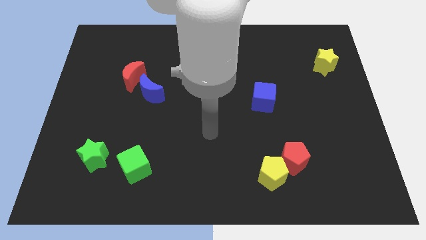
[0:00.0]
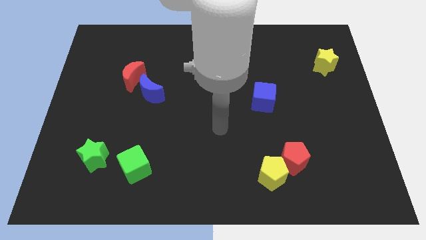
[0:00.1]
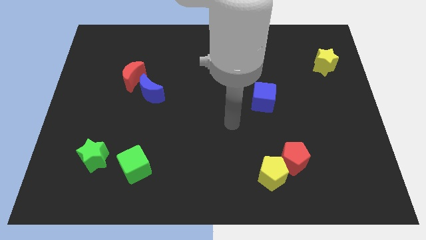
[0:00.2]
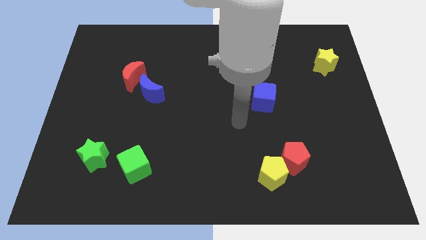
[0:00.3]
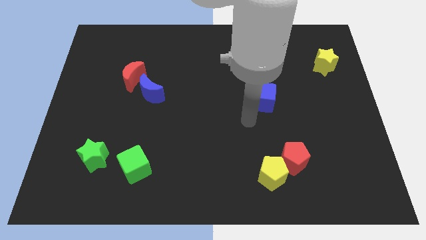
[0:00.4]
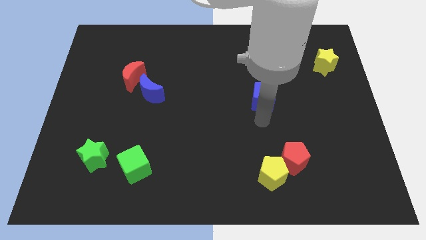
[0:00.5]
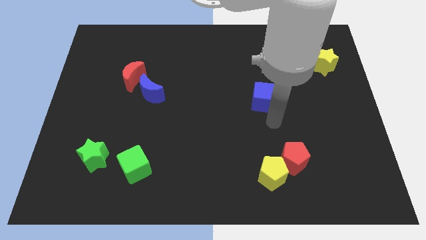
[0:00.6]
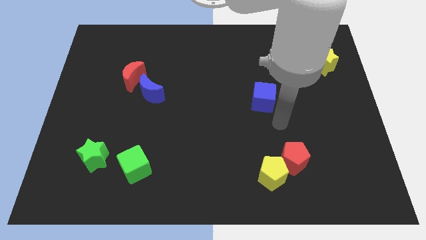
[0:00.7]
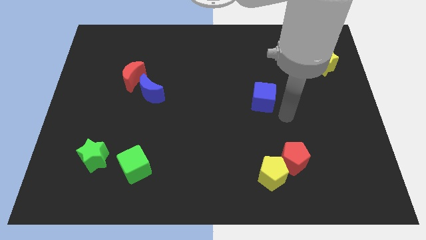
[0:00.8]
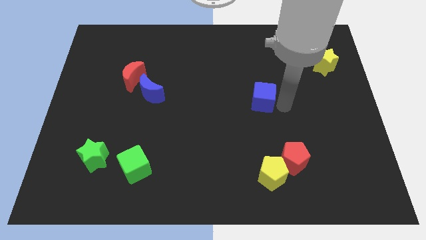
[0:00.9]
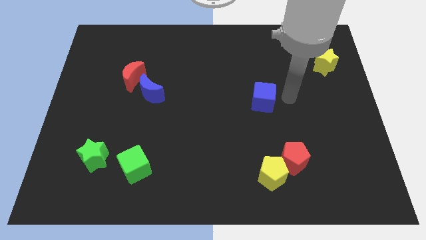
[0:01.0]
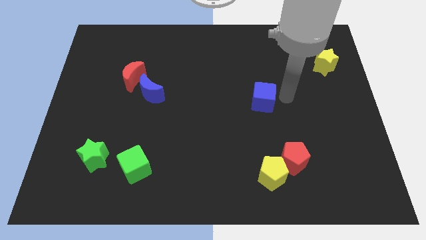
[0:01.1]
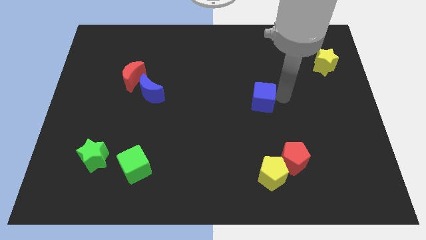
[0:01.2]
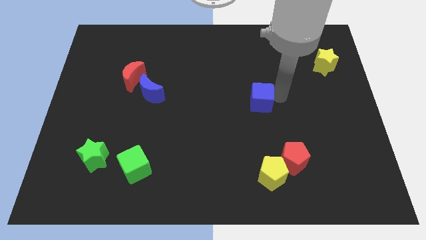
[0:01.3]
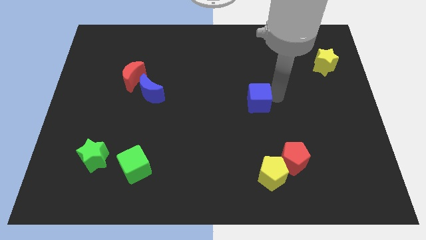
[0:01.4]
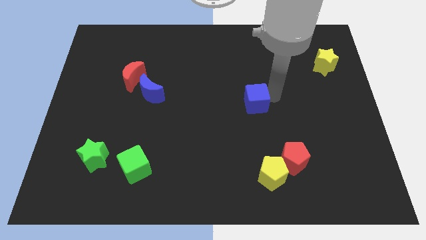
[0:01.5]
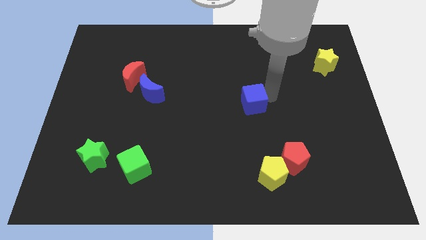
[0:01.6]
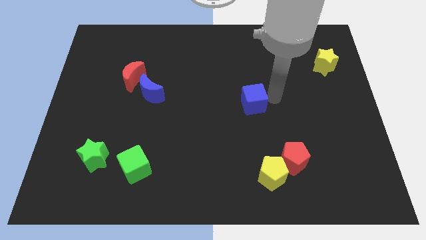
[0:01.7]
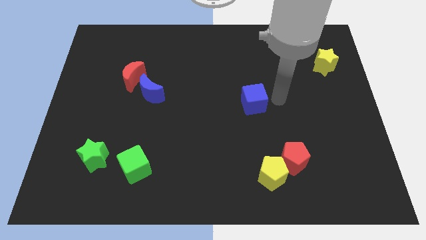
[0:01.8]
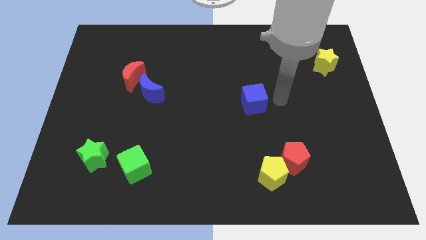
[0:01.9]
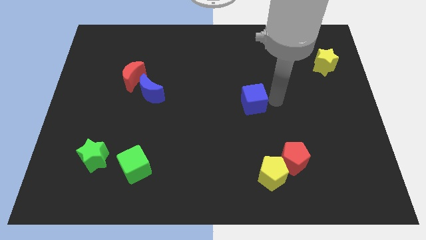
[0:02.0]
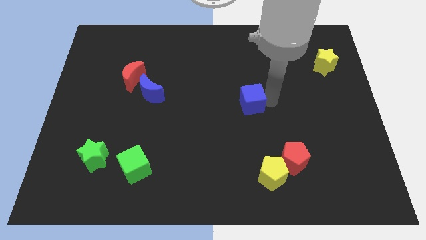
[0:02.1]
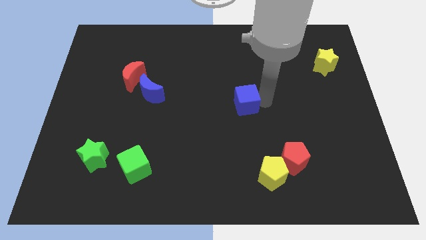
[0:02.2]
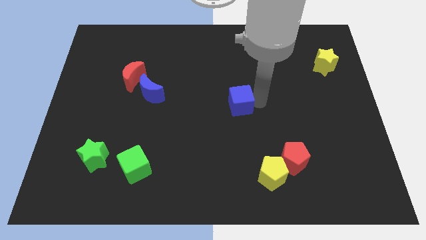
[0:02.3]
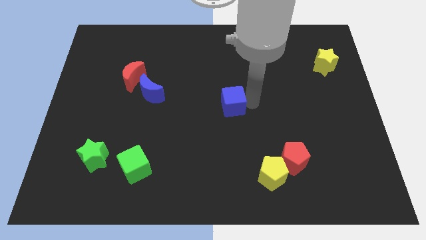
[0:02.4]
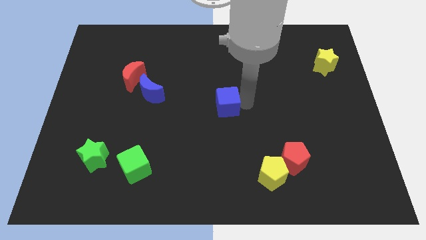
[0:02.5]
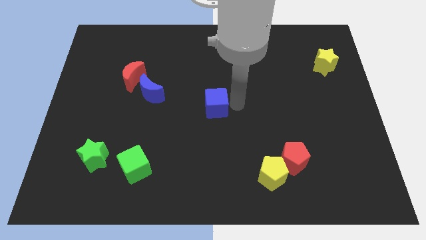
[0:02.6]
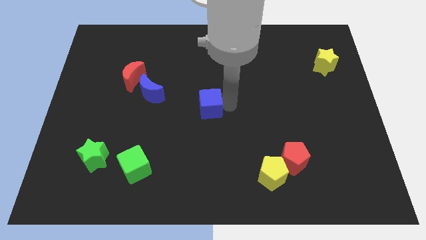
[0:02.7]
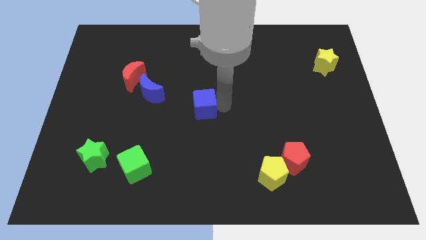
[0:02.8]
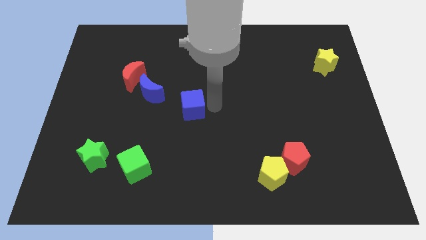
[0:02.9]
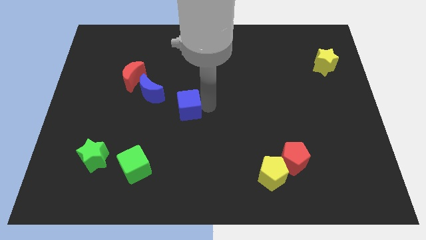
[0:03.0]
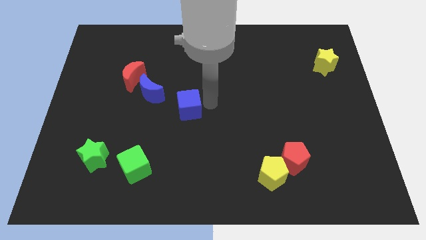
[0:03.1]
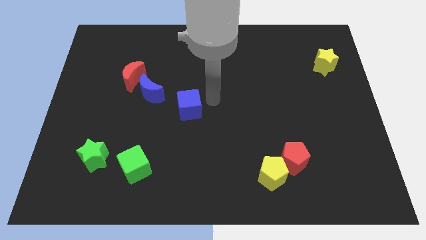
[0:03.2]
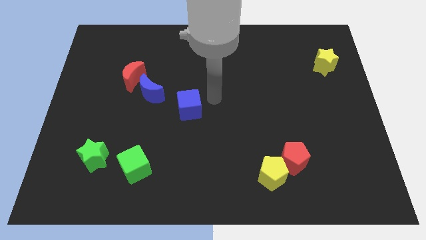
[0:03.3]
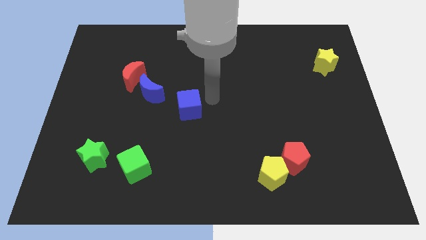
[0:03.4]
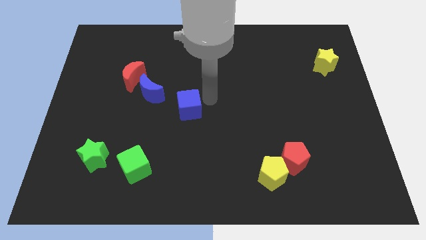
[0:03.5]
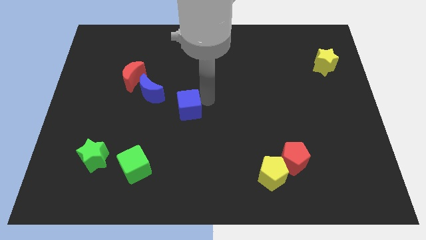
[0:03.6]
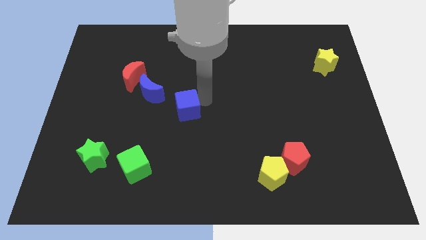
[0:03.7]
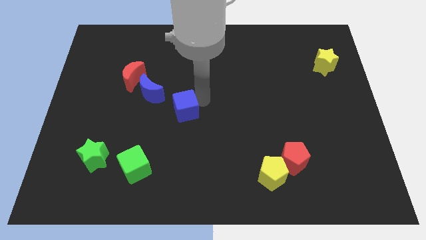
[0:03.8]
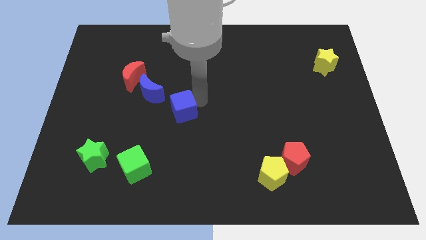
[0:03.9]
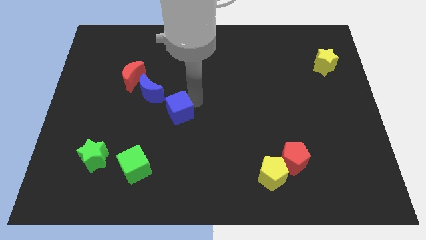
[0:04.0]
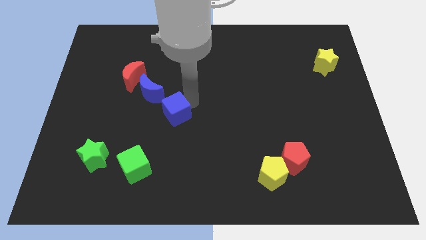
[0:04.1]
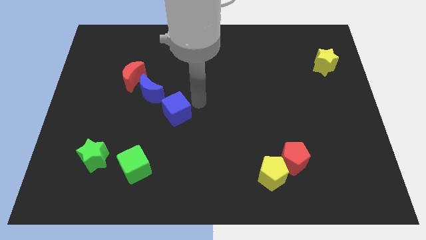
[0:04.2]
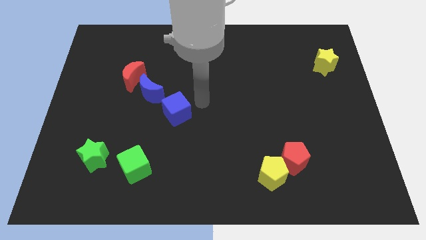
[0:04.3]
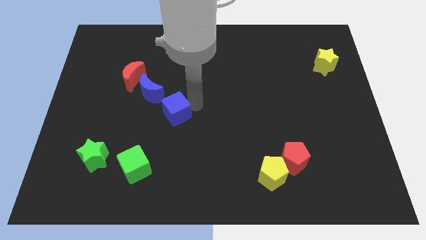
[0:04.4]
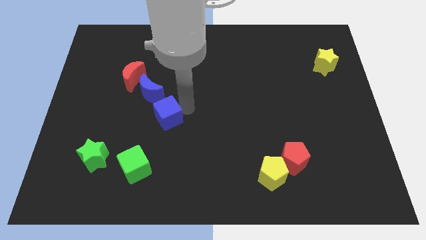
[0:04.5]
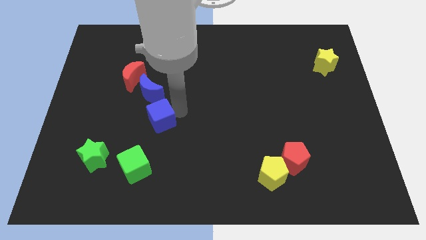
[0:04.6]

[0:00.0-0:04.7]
move the blue cube to the top side of the green cube

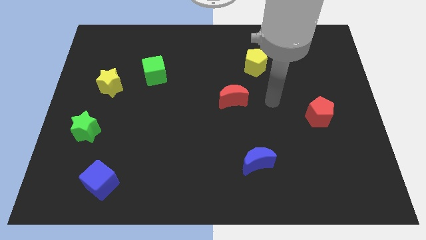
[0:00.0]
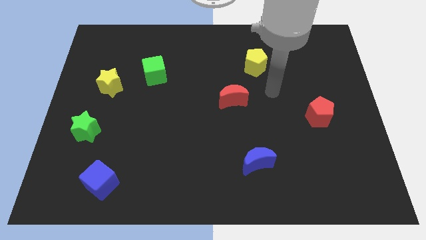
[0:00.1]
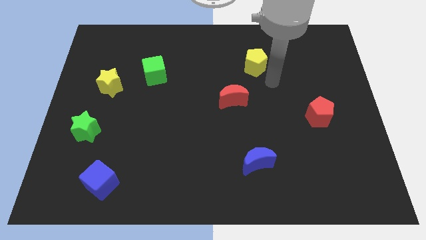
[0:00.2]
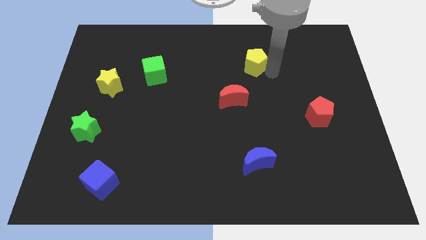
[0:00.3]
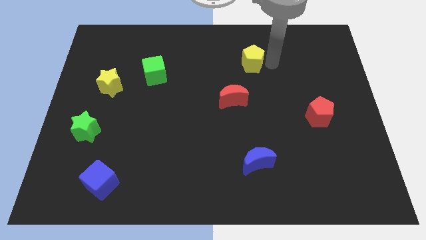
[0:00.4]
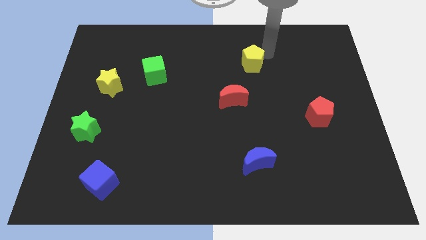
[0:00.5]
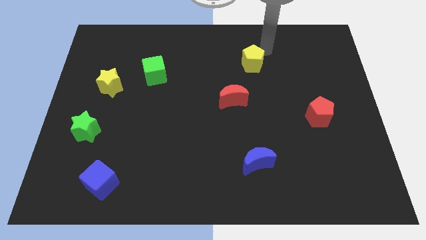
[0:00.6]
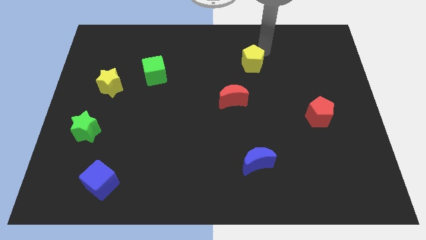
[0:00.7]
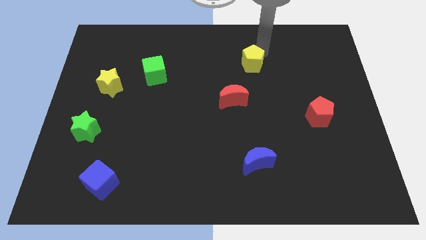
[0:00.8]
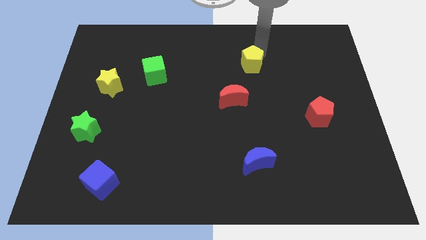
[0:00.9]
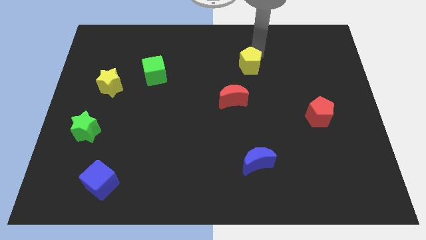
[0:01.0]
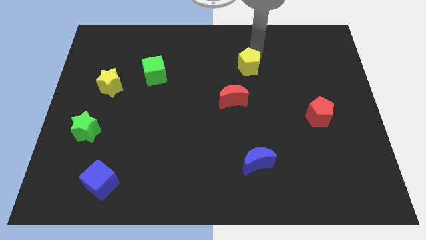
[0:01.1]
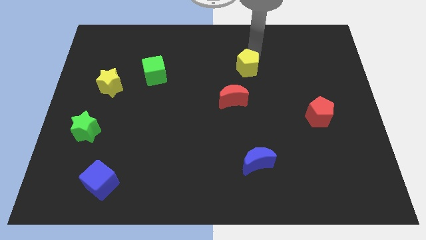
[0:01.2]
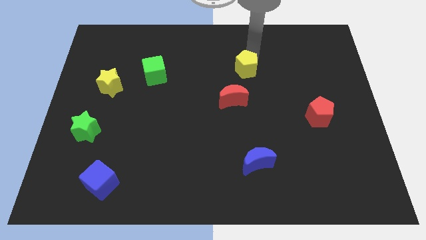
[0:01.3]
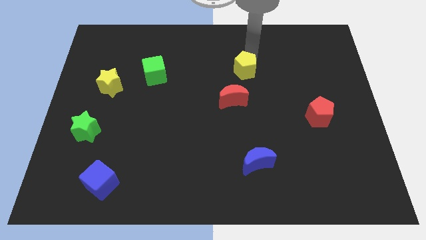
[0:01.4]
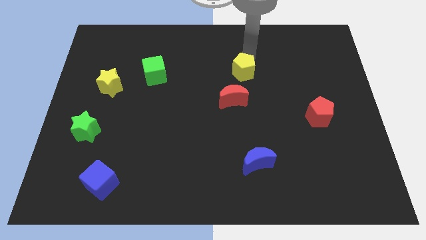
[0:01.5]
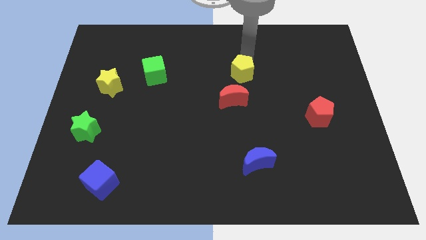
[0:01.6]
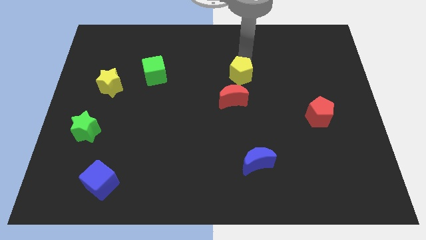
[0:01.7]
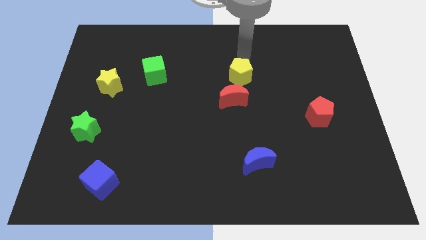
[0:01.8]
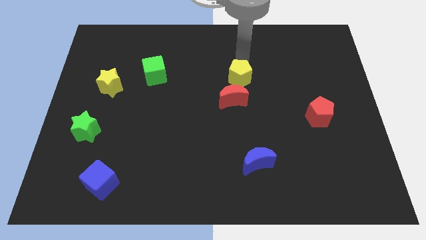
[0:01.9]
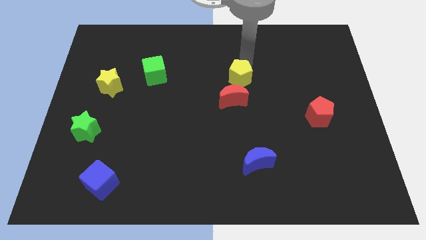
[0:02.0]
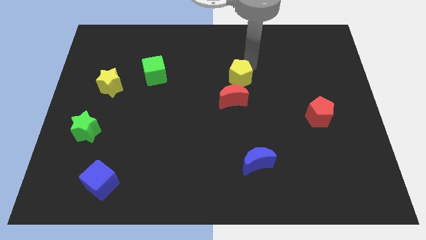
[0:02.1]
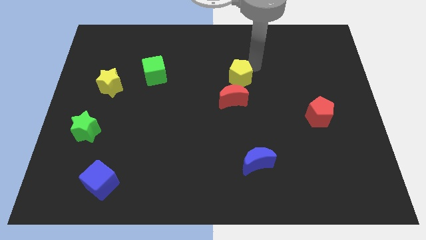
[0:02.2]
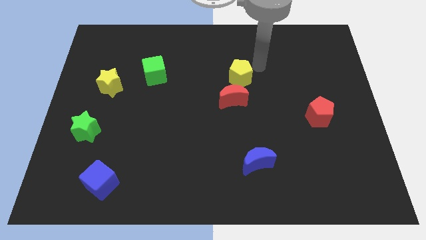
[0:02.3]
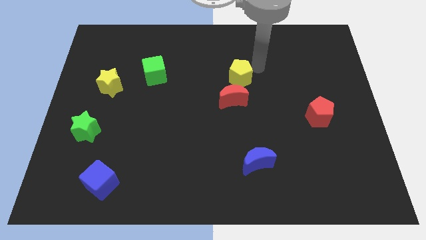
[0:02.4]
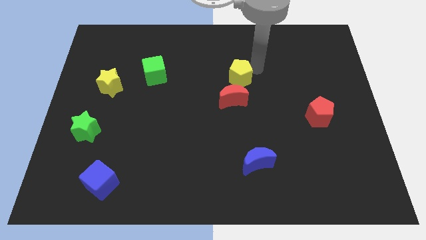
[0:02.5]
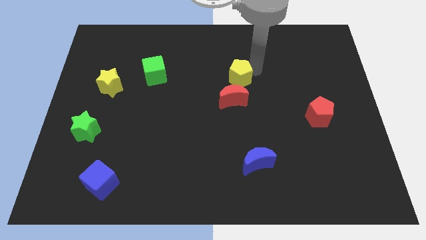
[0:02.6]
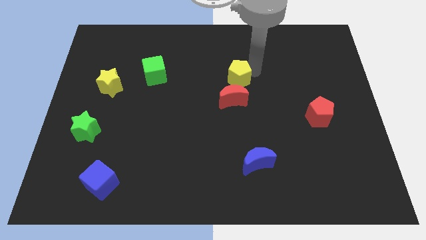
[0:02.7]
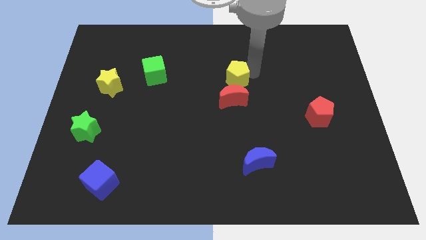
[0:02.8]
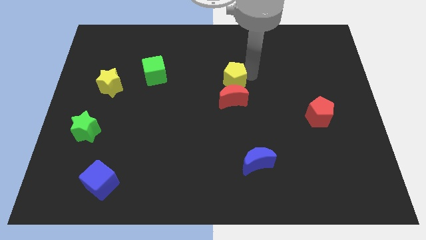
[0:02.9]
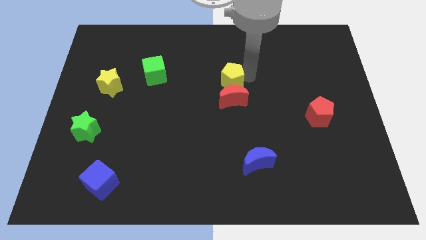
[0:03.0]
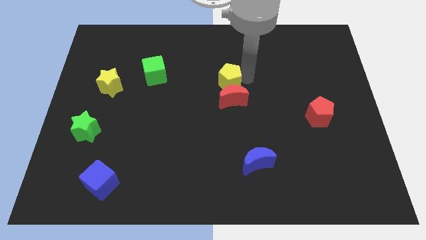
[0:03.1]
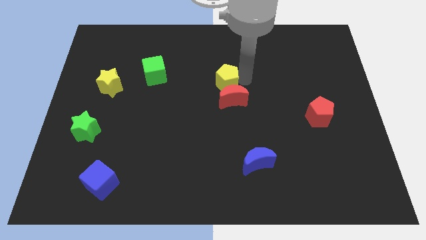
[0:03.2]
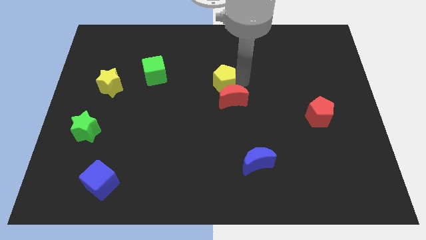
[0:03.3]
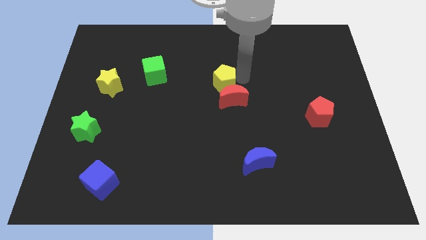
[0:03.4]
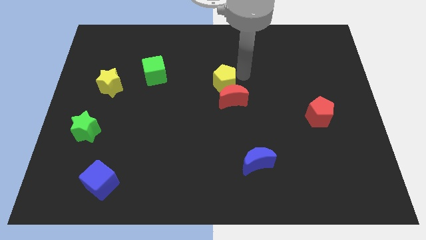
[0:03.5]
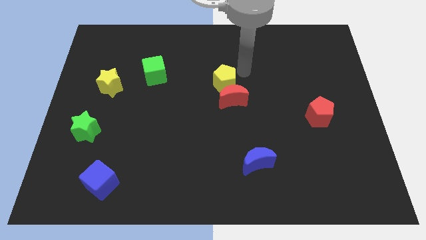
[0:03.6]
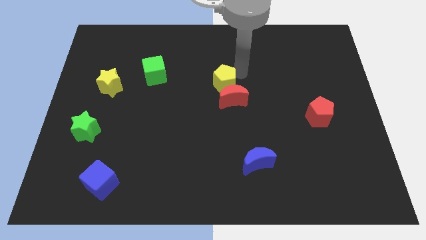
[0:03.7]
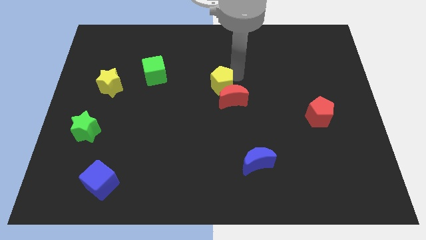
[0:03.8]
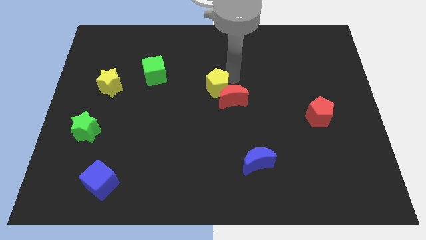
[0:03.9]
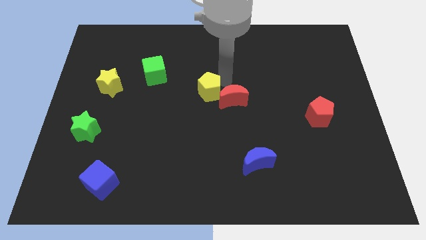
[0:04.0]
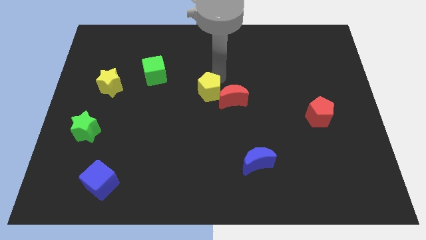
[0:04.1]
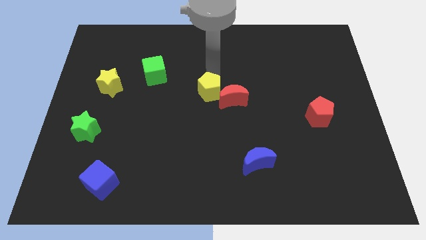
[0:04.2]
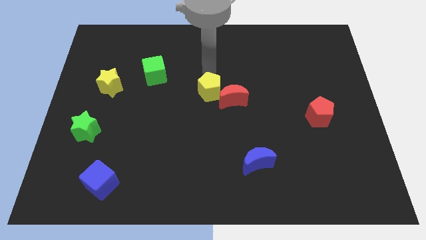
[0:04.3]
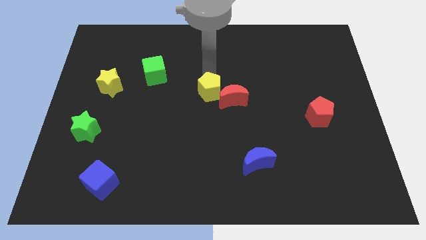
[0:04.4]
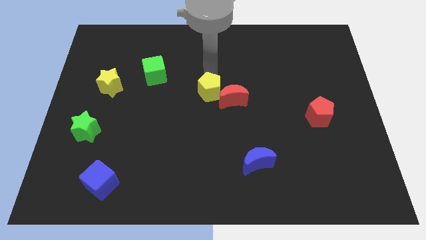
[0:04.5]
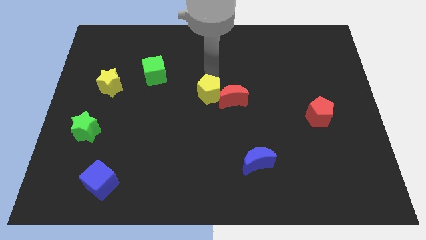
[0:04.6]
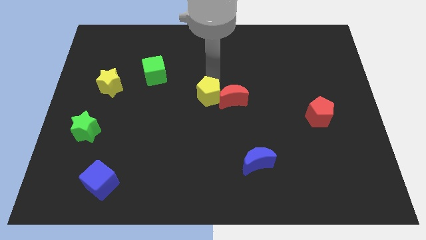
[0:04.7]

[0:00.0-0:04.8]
slide the yellow pentagon diagonally down and to the left of the red moon
